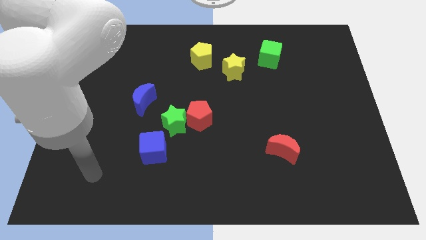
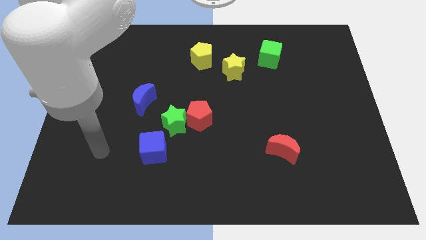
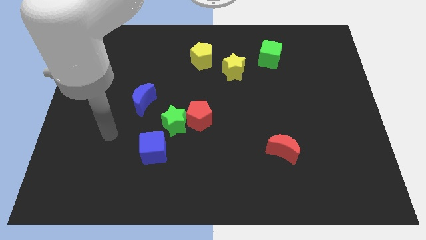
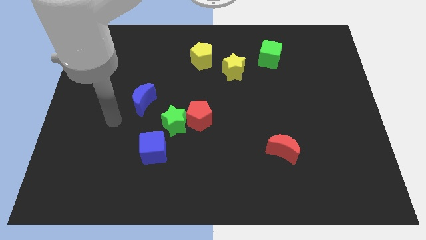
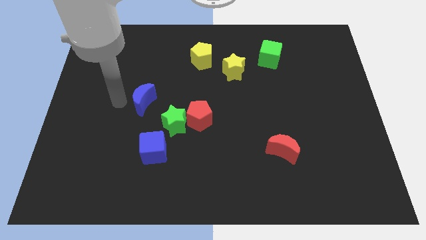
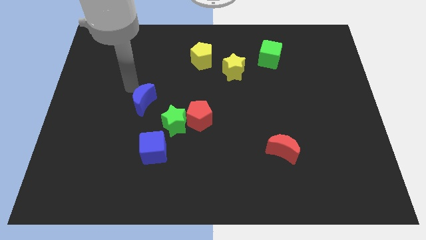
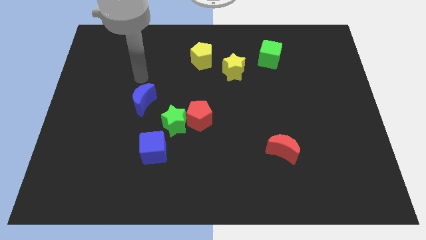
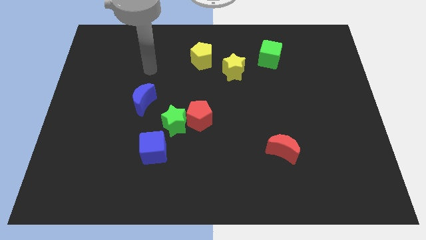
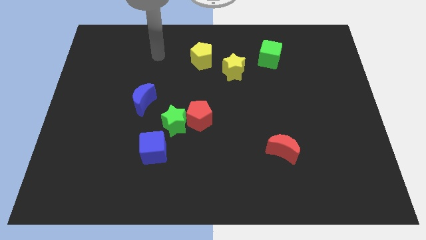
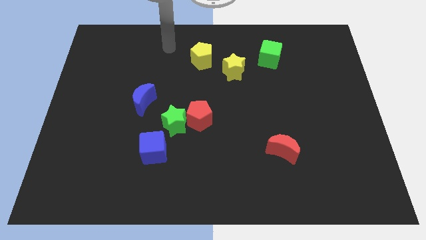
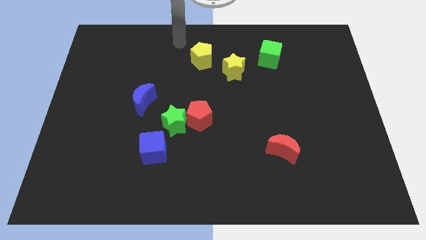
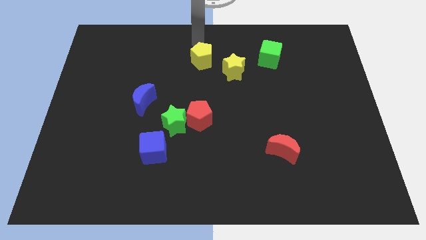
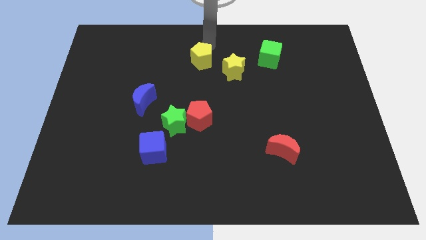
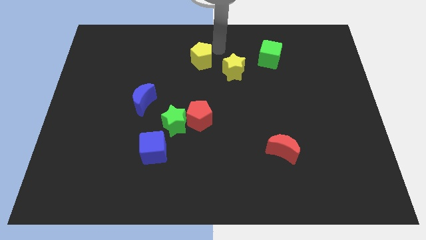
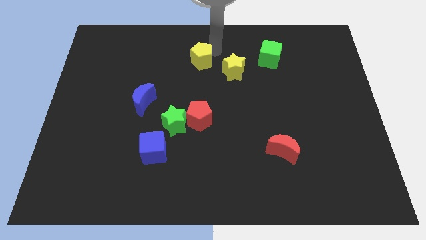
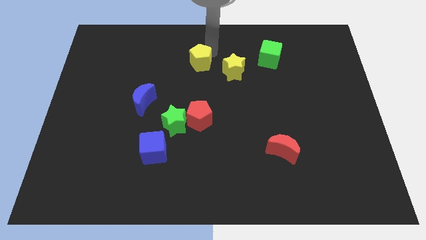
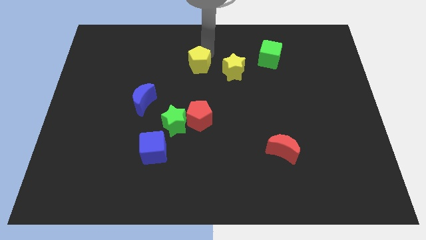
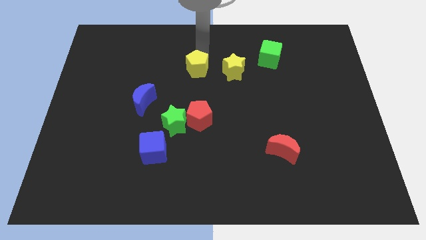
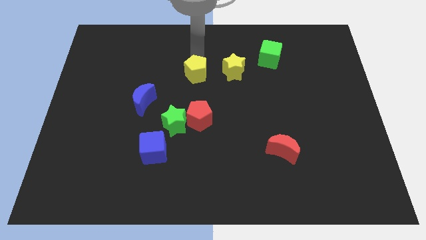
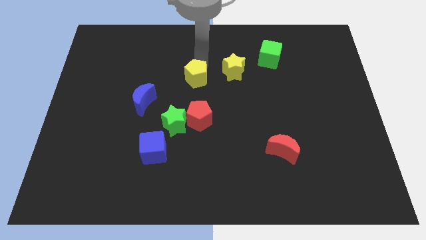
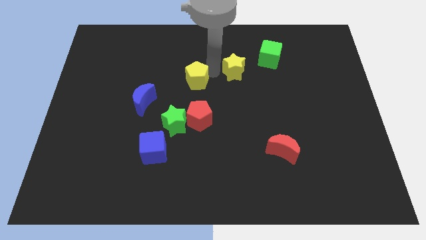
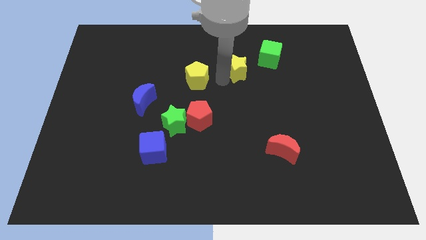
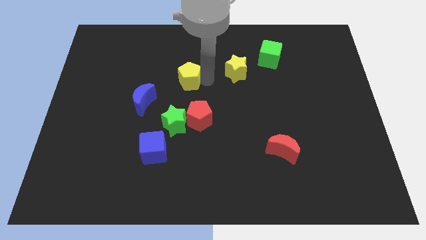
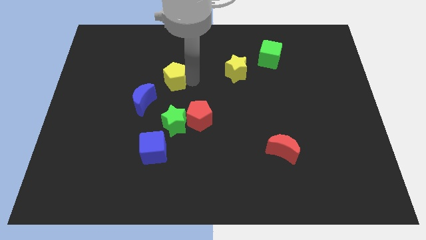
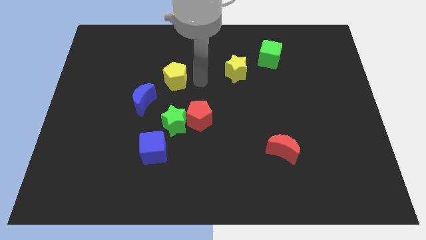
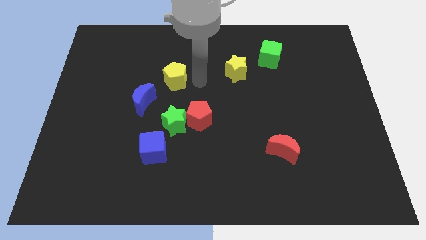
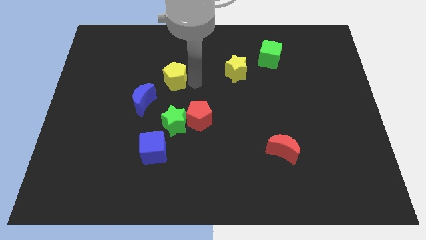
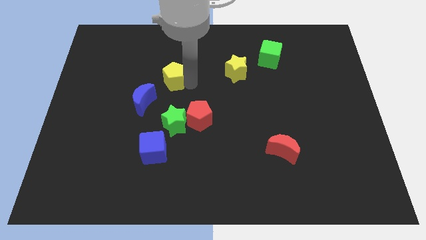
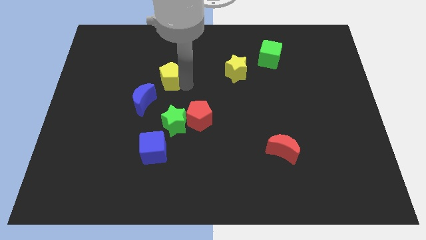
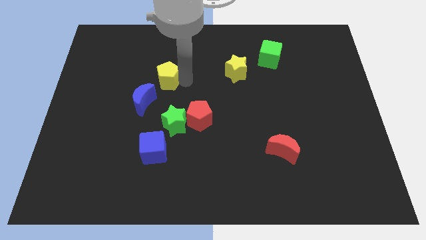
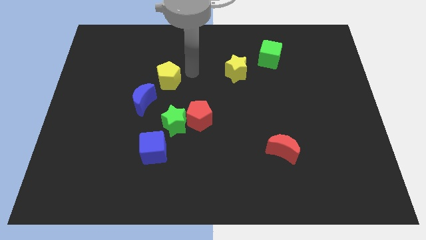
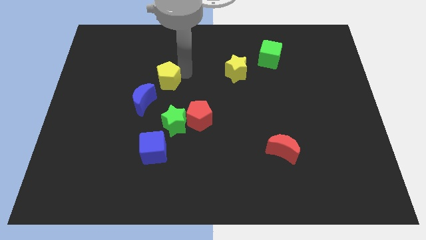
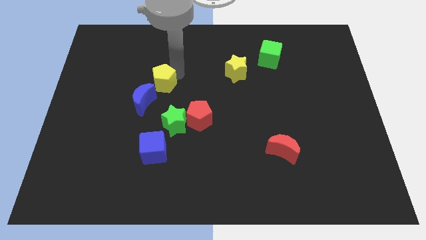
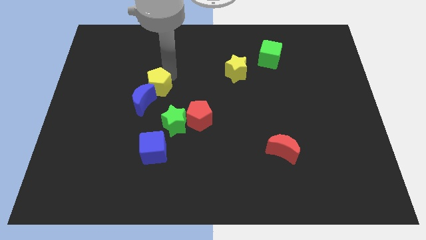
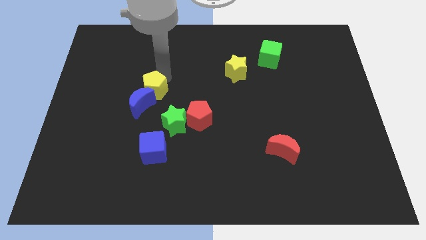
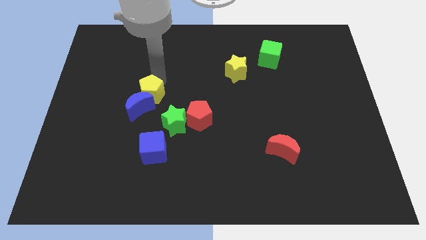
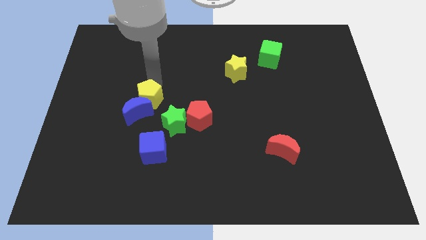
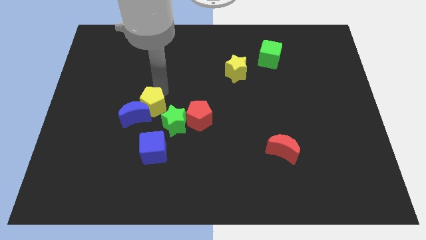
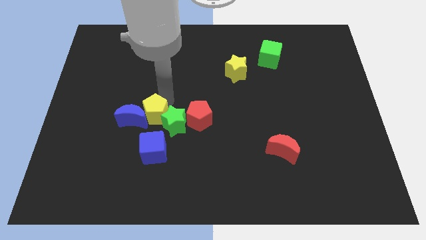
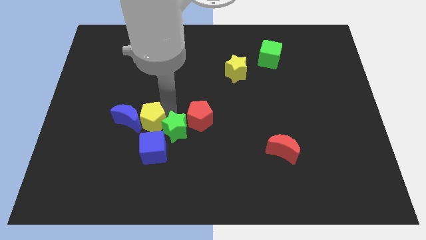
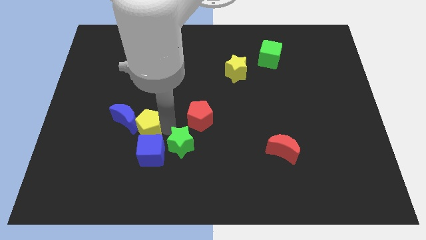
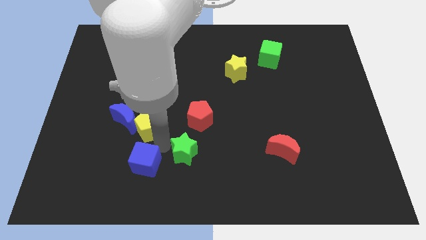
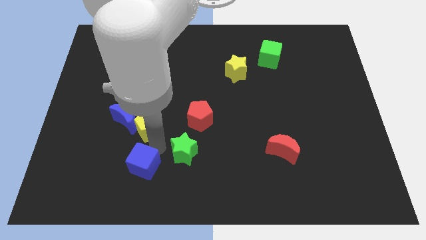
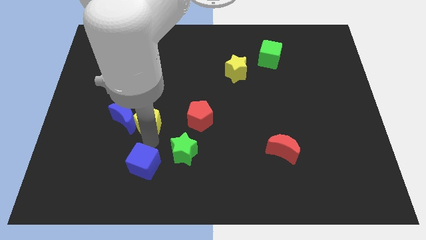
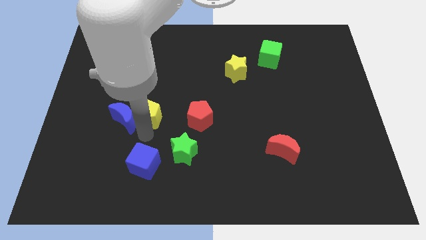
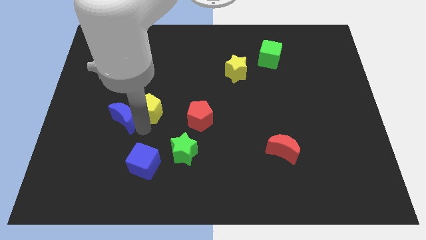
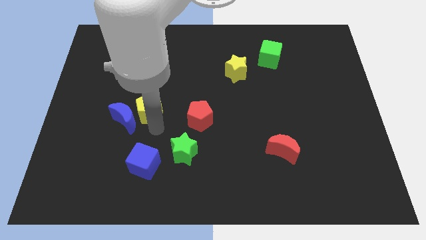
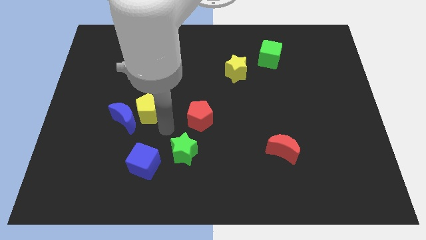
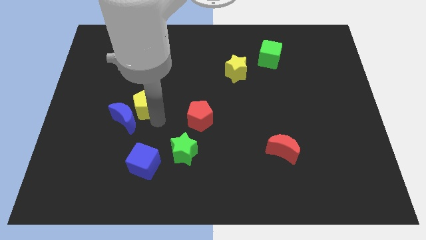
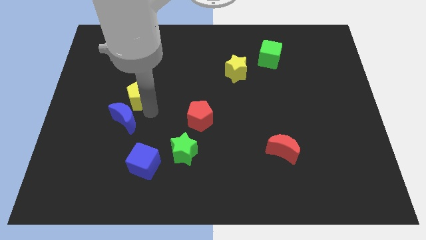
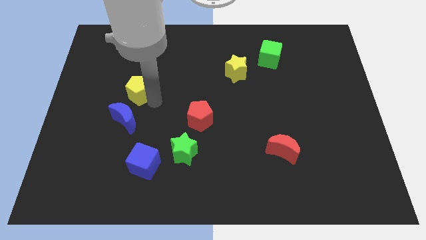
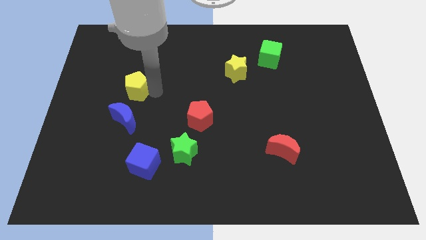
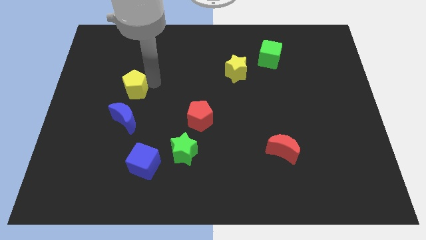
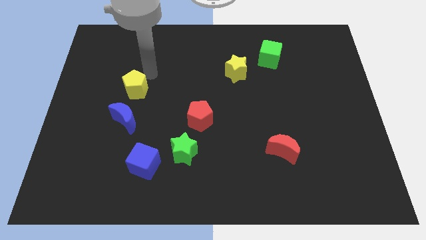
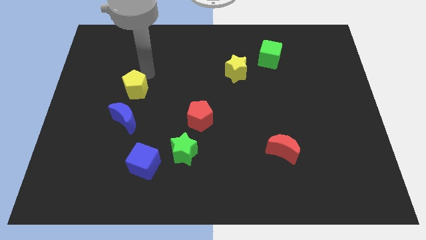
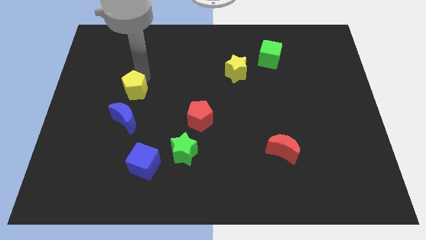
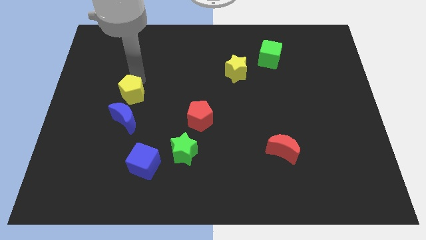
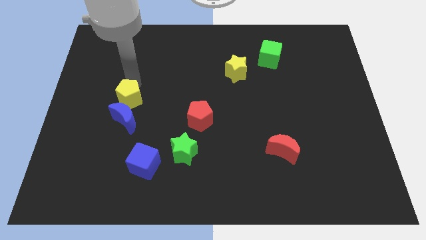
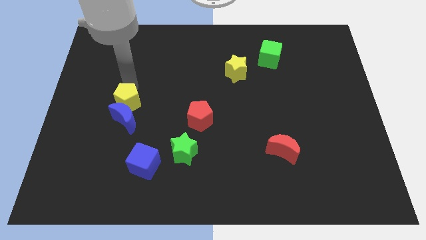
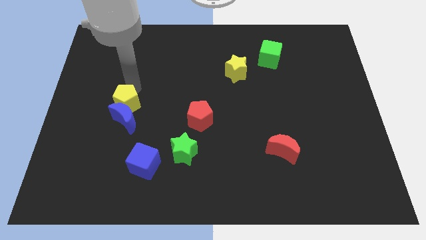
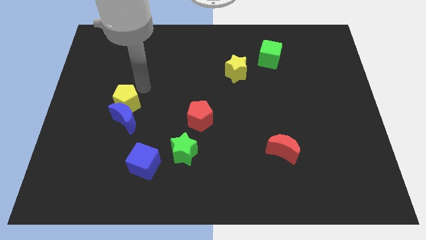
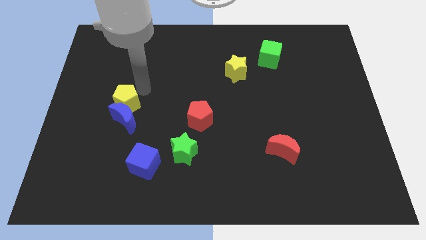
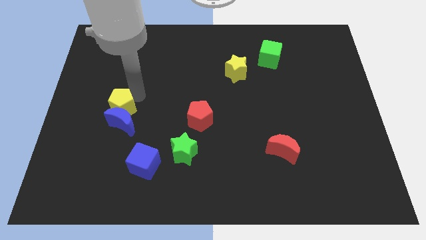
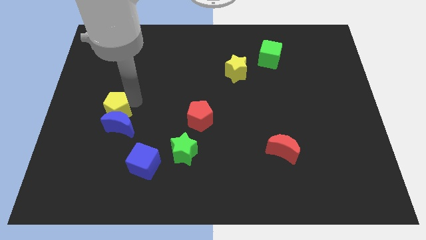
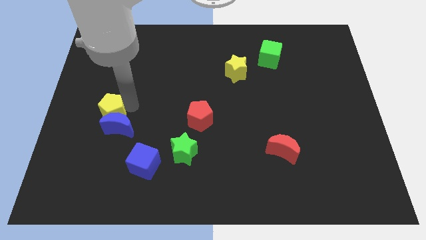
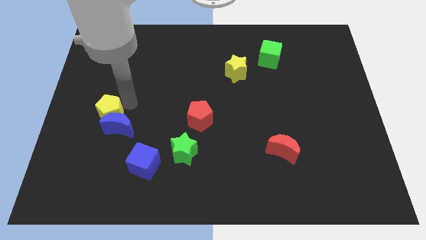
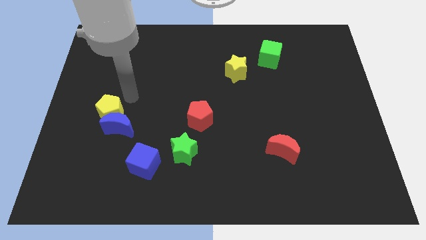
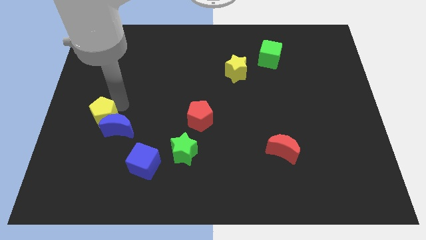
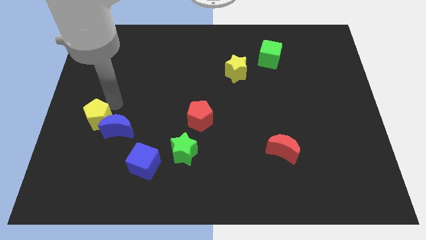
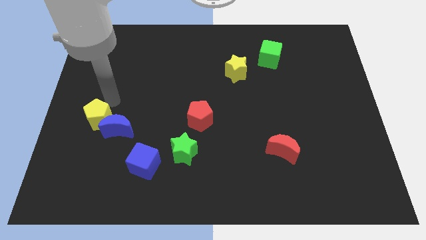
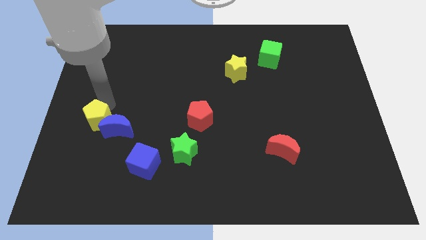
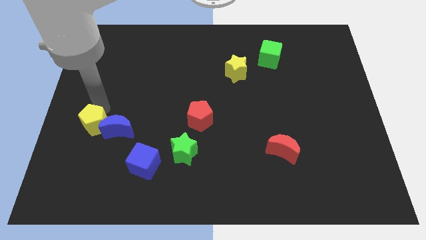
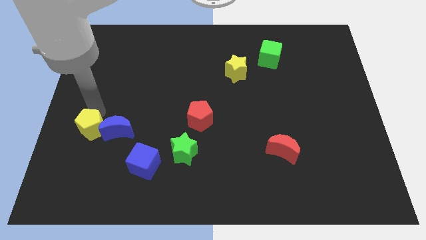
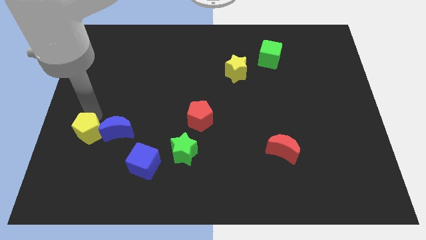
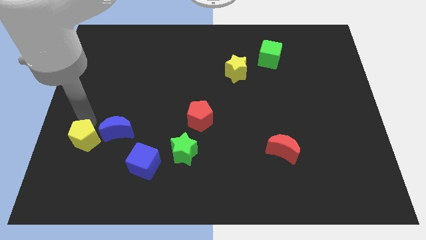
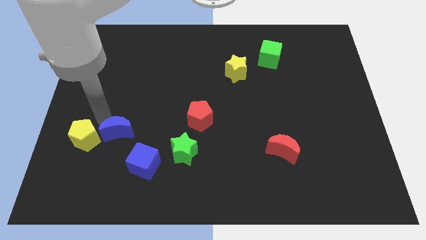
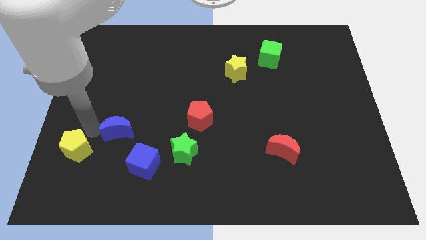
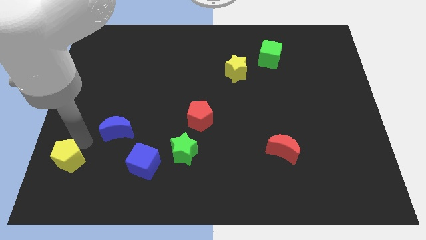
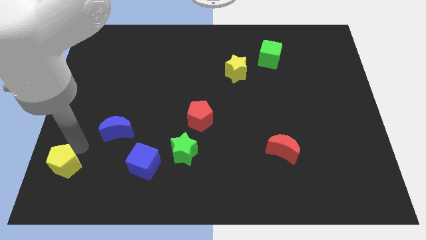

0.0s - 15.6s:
put the yellow pentagon to the bottom left
